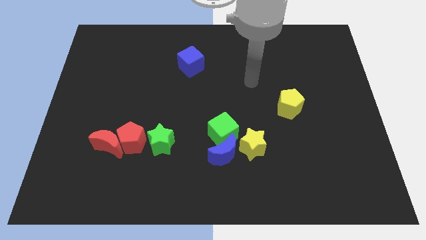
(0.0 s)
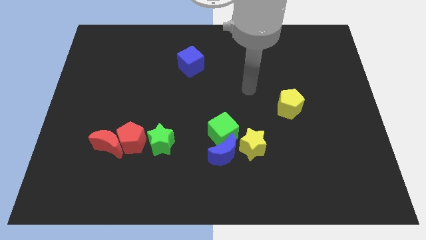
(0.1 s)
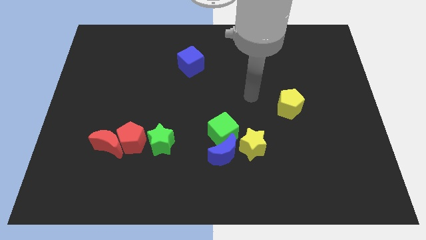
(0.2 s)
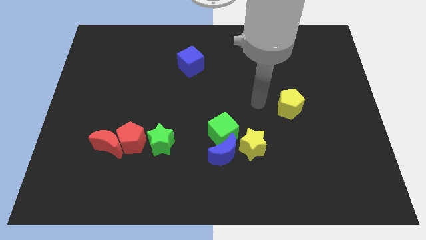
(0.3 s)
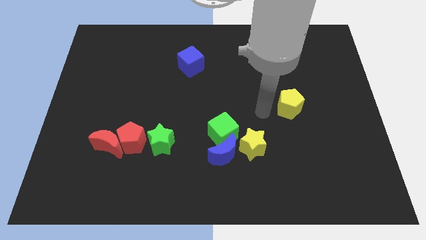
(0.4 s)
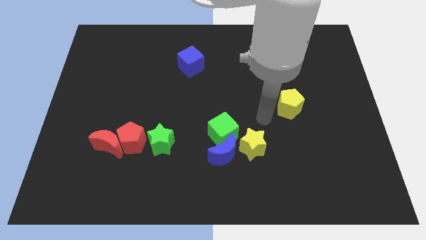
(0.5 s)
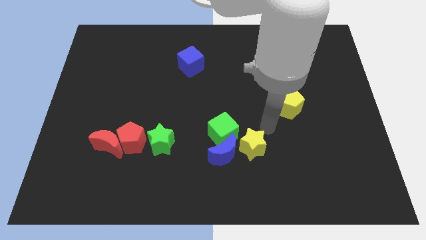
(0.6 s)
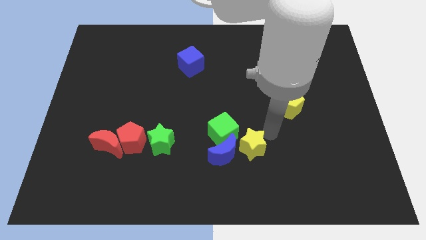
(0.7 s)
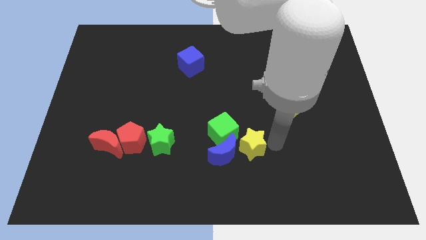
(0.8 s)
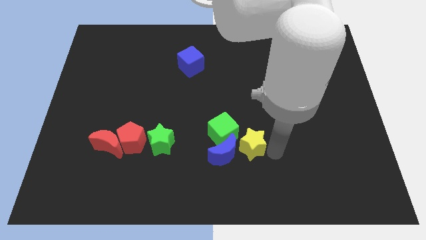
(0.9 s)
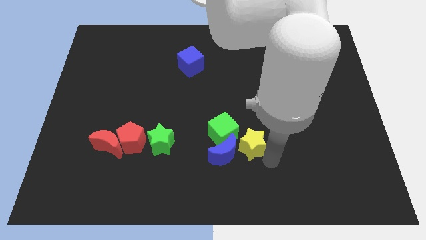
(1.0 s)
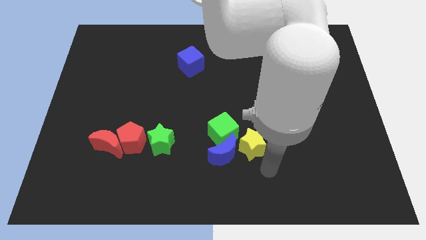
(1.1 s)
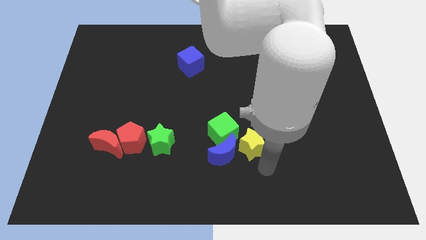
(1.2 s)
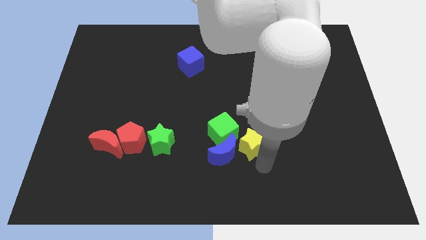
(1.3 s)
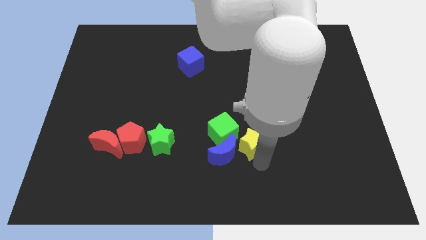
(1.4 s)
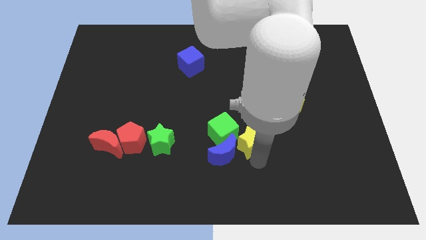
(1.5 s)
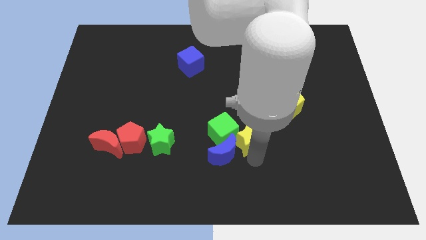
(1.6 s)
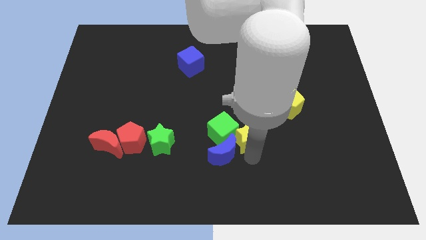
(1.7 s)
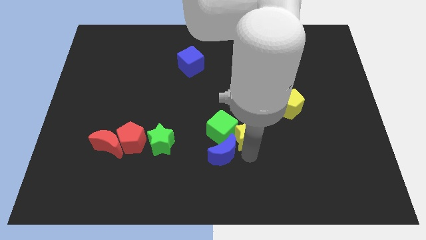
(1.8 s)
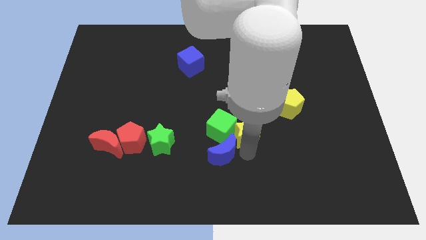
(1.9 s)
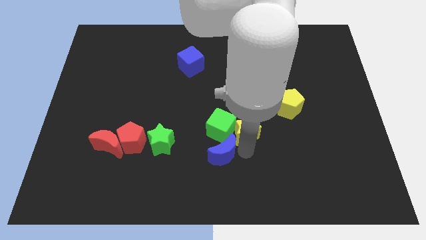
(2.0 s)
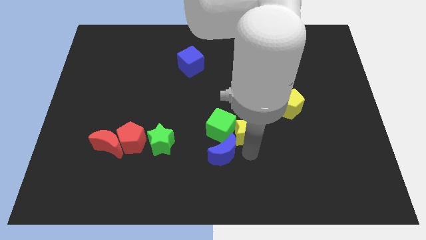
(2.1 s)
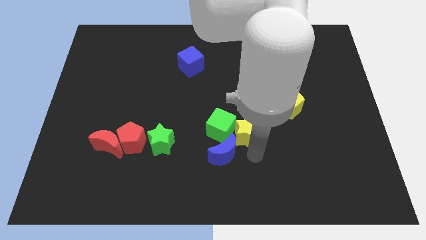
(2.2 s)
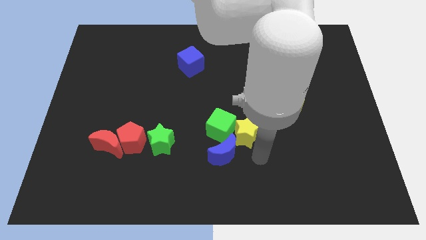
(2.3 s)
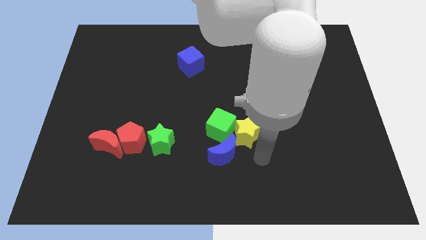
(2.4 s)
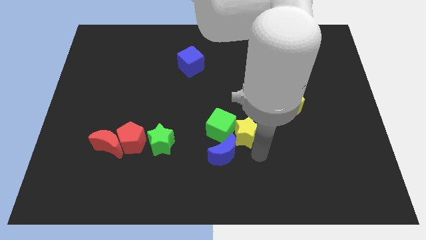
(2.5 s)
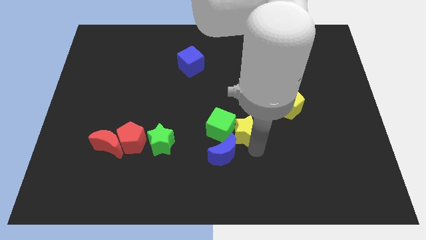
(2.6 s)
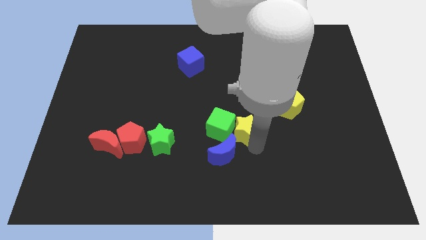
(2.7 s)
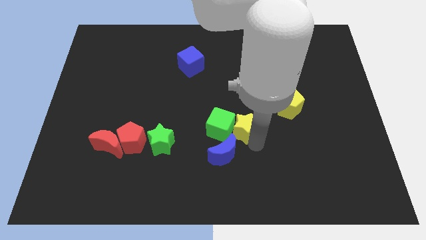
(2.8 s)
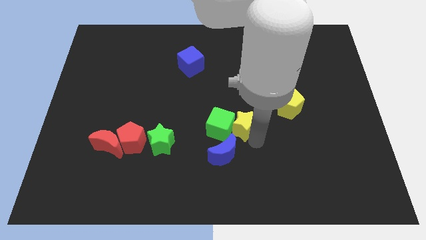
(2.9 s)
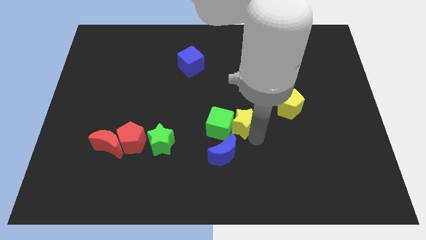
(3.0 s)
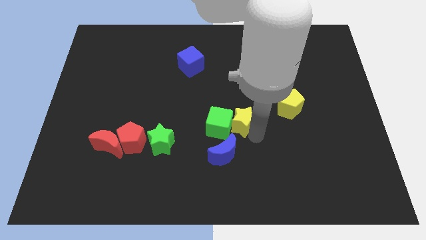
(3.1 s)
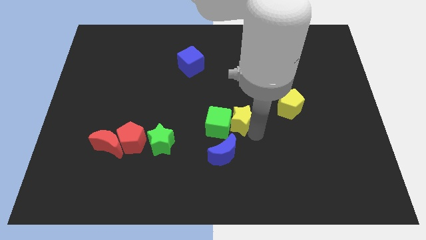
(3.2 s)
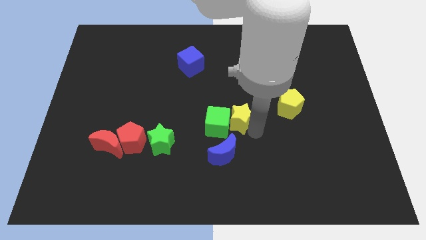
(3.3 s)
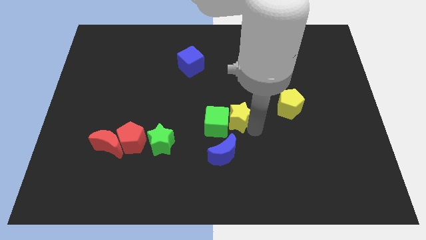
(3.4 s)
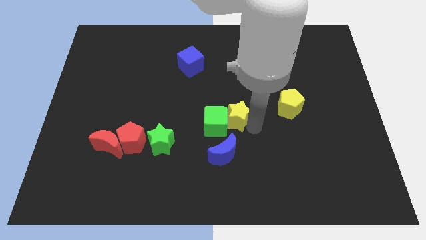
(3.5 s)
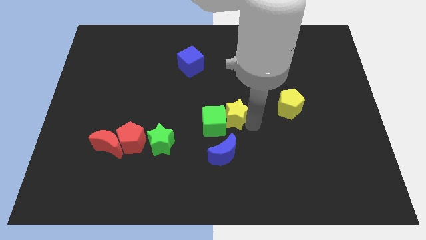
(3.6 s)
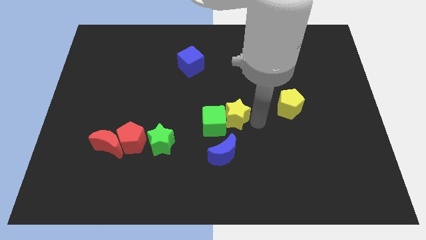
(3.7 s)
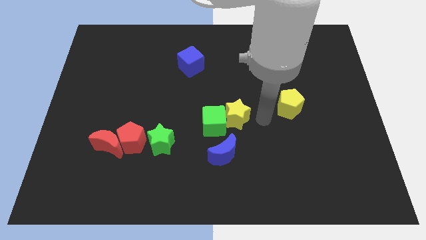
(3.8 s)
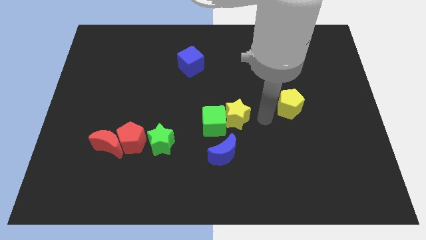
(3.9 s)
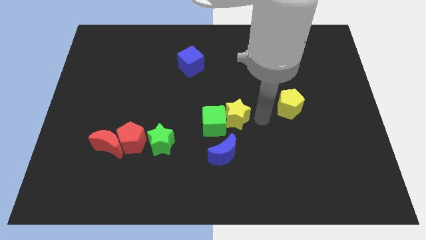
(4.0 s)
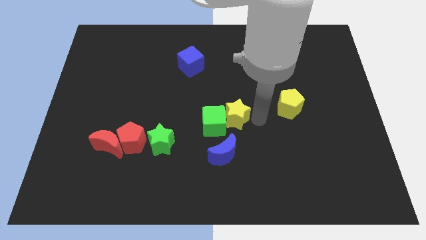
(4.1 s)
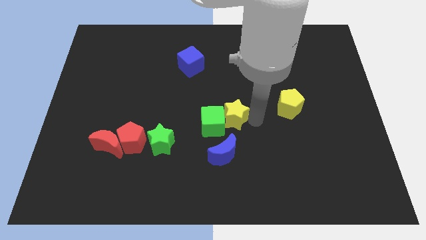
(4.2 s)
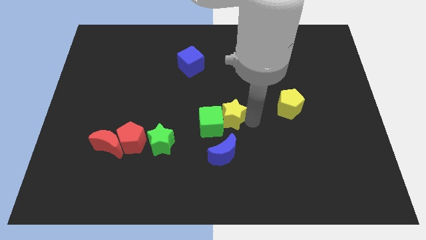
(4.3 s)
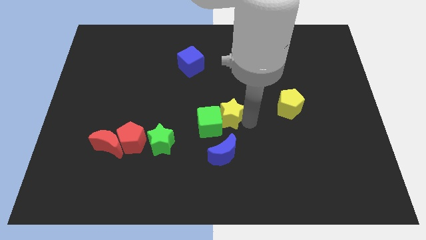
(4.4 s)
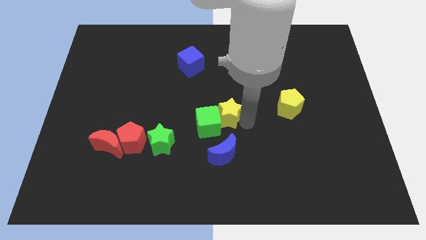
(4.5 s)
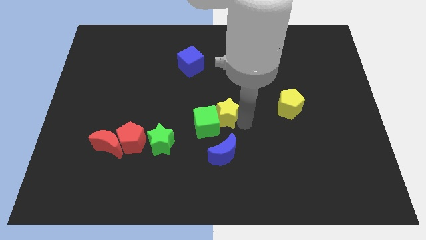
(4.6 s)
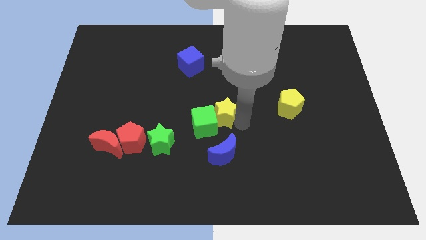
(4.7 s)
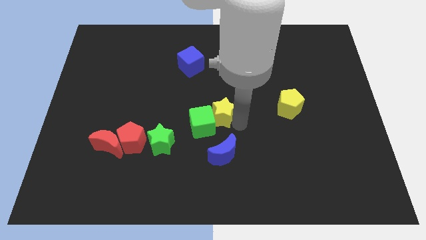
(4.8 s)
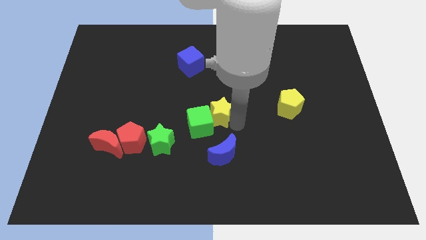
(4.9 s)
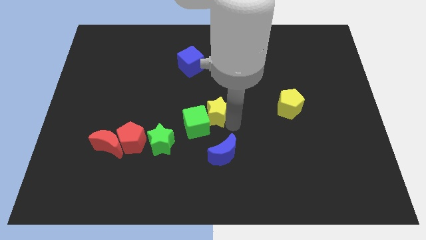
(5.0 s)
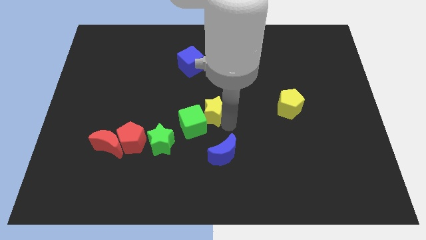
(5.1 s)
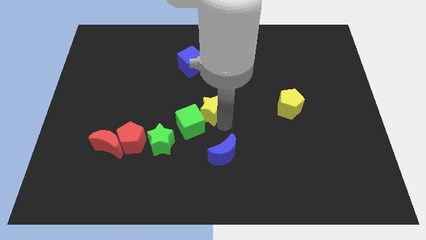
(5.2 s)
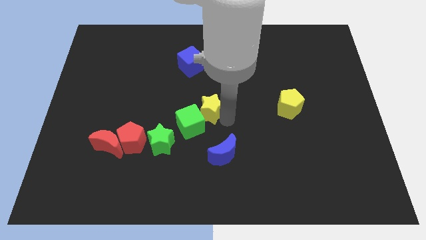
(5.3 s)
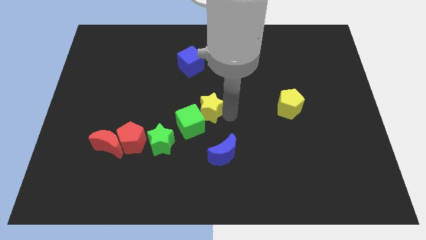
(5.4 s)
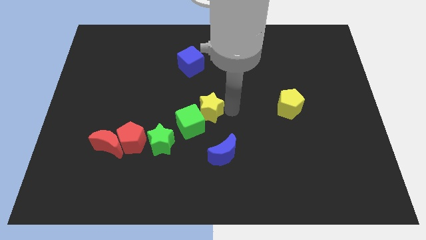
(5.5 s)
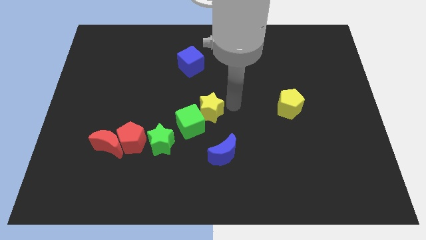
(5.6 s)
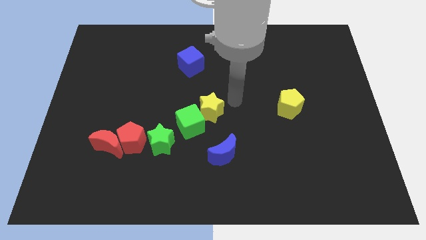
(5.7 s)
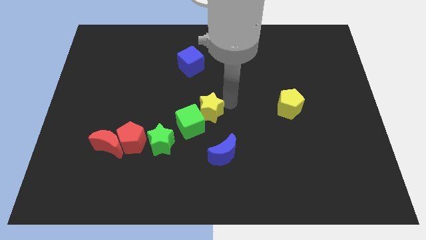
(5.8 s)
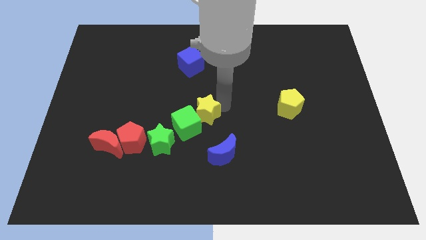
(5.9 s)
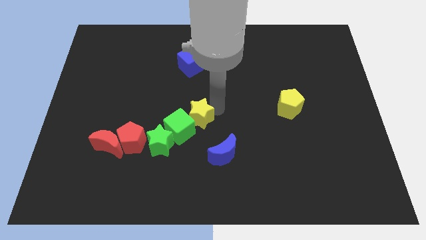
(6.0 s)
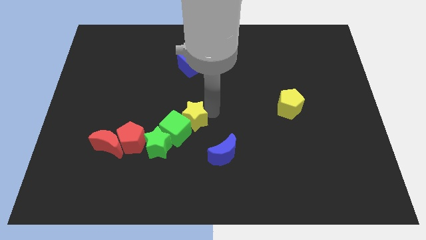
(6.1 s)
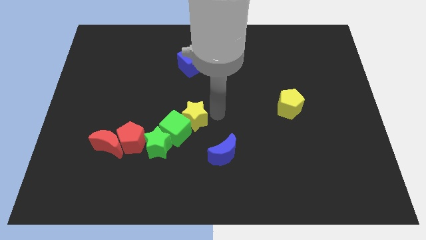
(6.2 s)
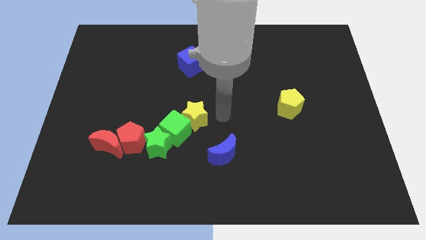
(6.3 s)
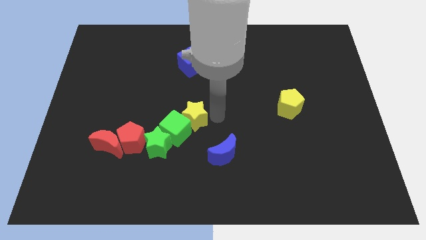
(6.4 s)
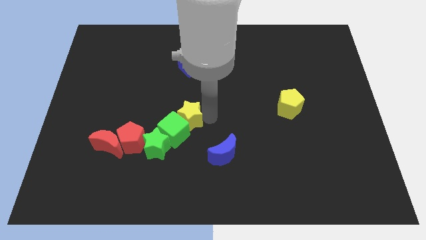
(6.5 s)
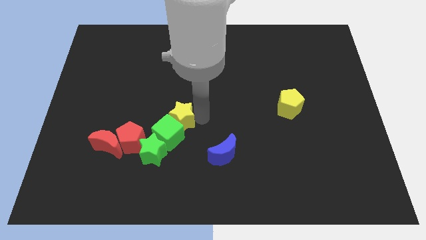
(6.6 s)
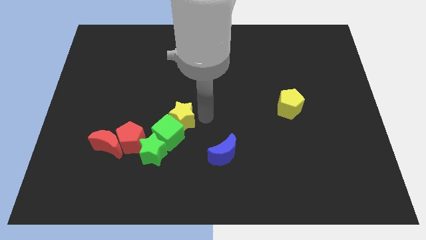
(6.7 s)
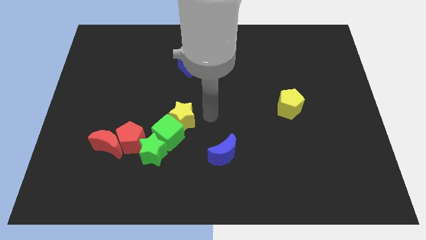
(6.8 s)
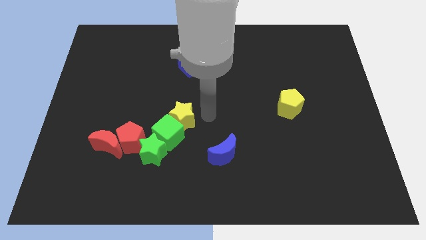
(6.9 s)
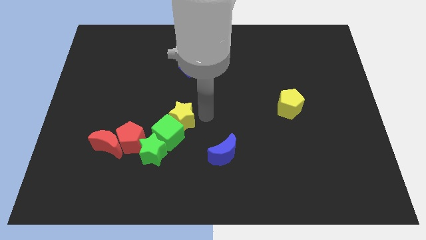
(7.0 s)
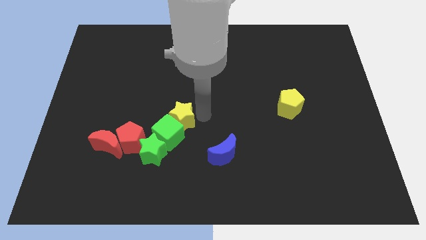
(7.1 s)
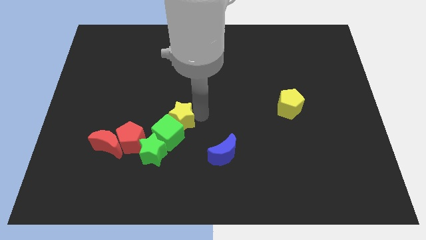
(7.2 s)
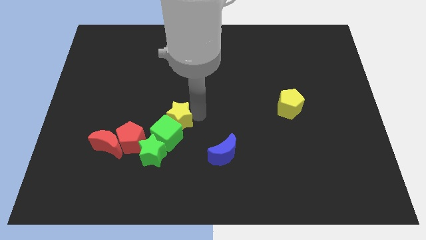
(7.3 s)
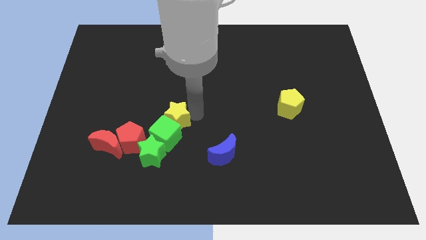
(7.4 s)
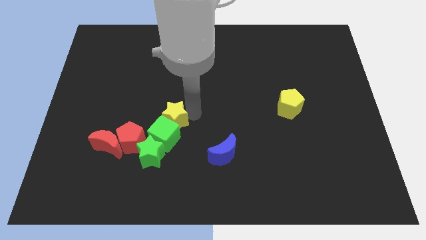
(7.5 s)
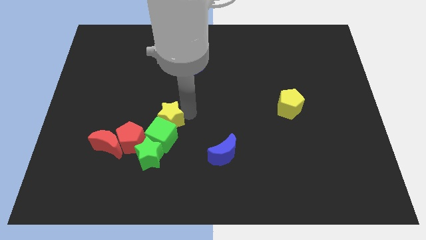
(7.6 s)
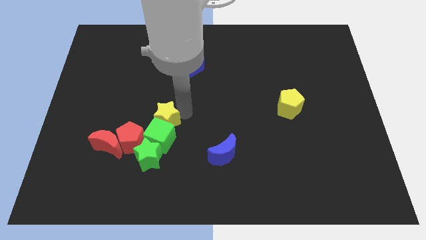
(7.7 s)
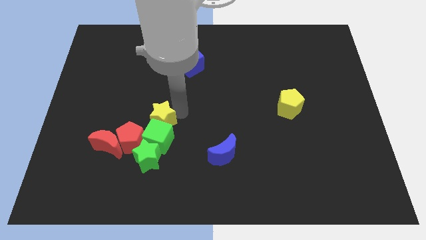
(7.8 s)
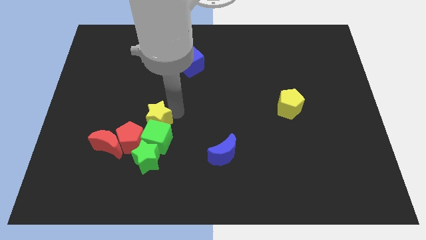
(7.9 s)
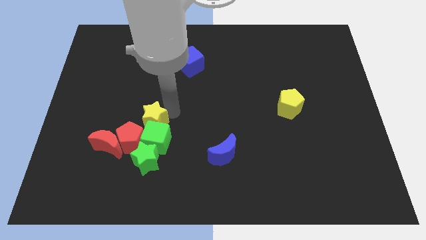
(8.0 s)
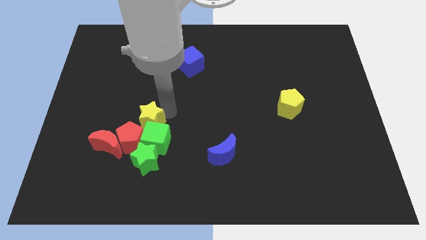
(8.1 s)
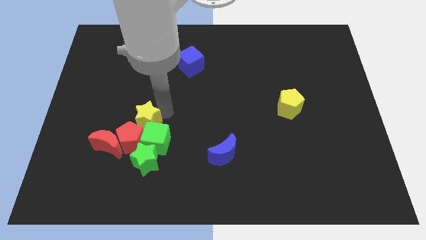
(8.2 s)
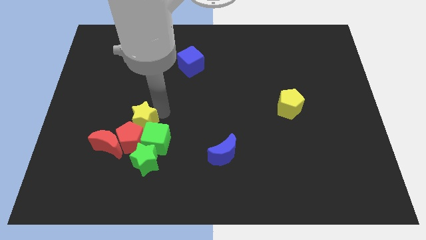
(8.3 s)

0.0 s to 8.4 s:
move the yellow star next to the red pentagon
